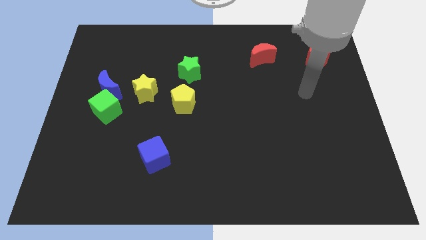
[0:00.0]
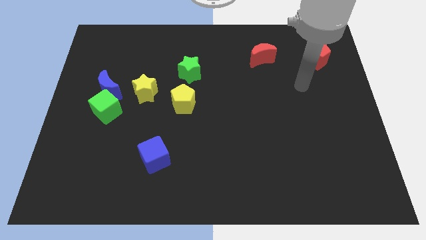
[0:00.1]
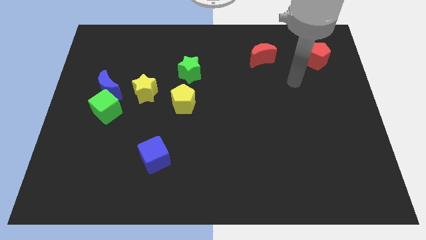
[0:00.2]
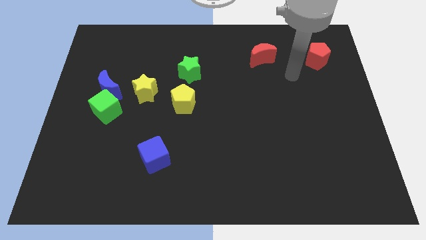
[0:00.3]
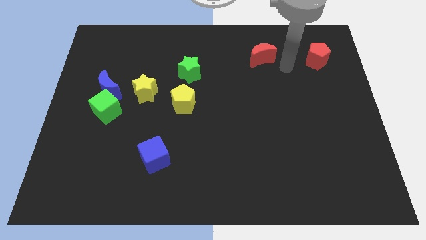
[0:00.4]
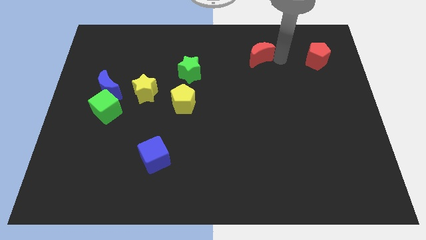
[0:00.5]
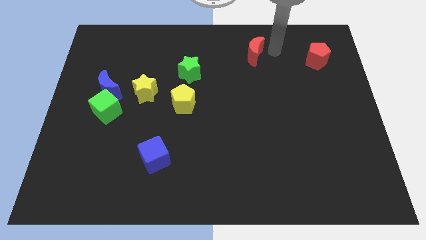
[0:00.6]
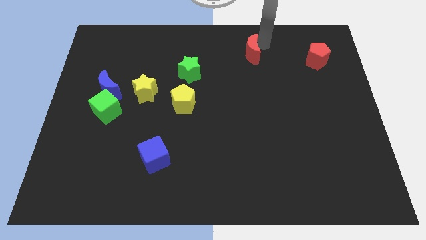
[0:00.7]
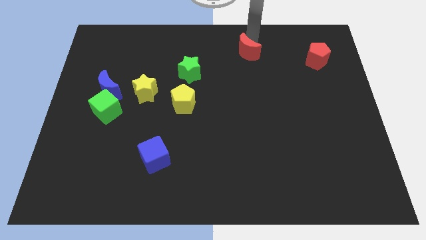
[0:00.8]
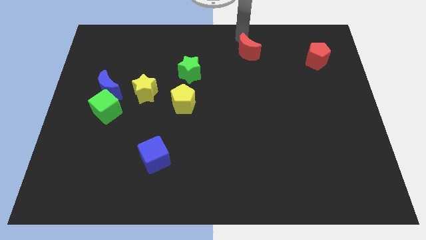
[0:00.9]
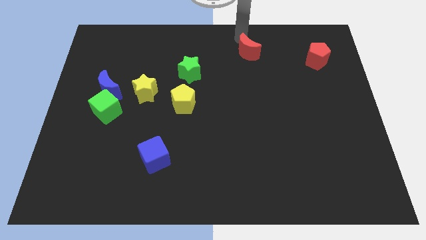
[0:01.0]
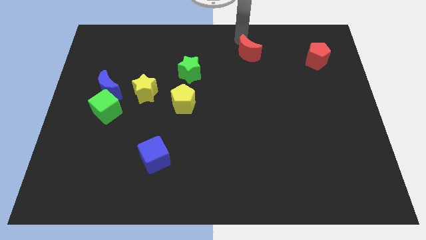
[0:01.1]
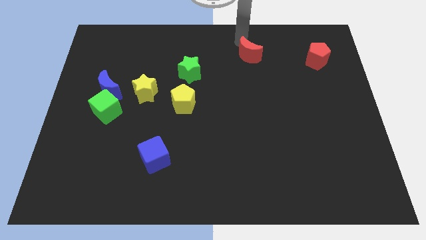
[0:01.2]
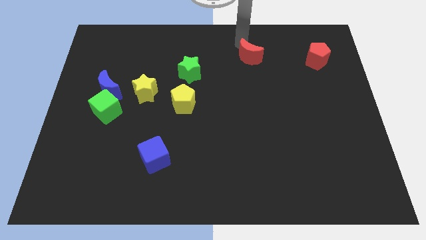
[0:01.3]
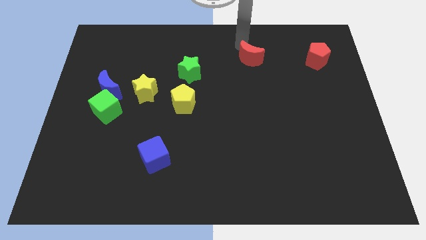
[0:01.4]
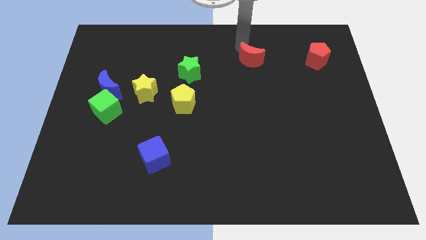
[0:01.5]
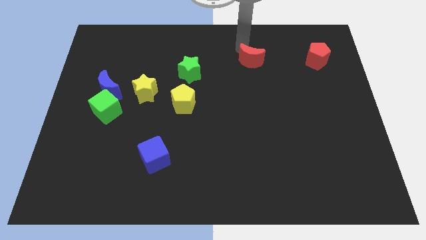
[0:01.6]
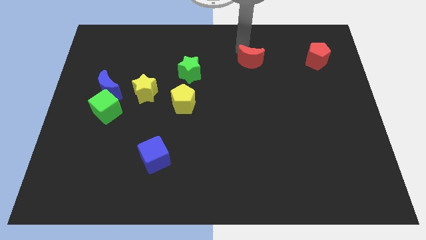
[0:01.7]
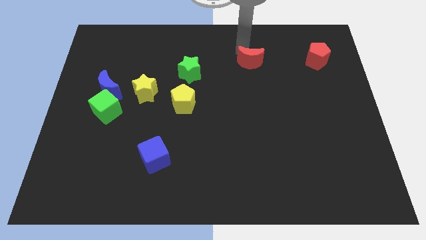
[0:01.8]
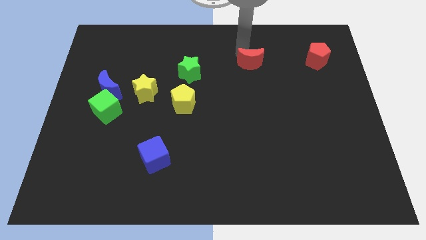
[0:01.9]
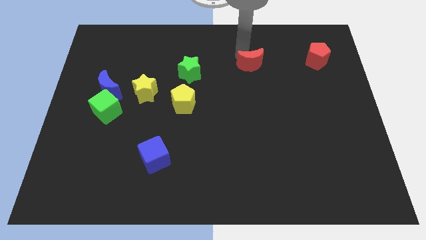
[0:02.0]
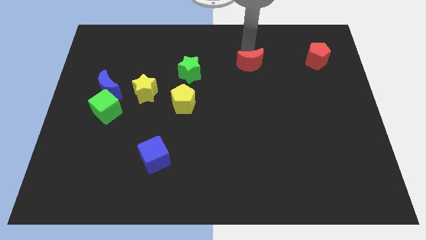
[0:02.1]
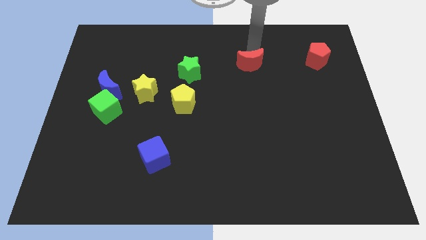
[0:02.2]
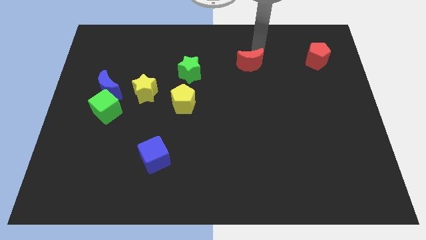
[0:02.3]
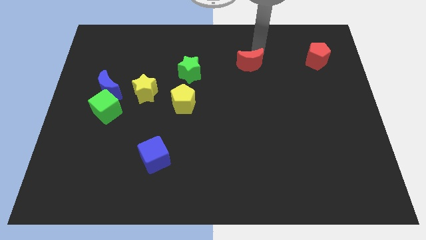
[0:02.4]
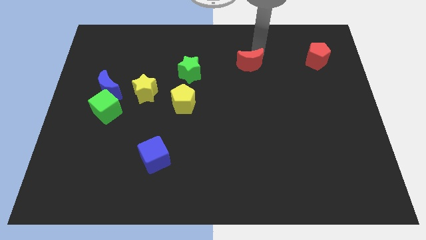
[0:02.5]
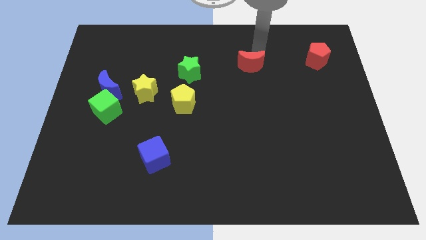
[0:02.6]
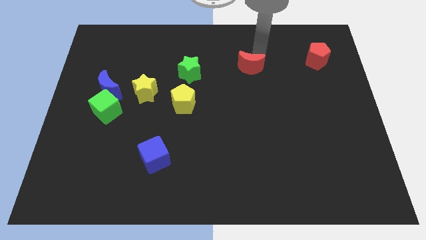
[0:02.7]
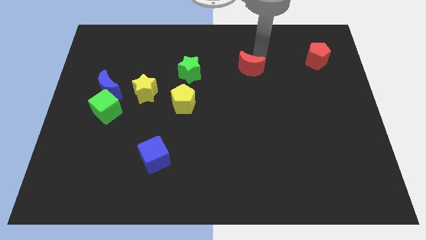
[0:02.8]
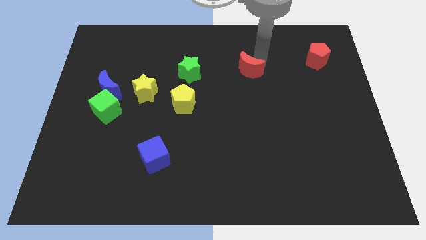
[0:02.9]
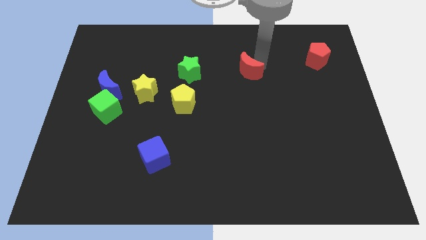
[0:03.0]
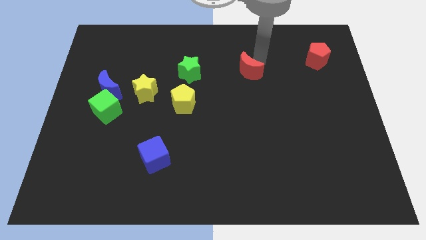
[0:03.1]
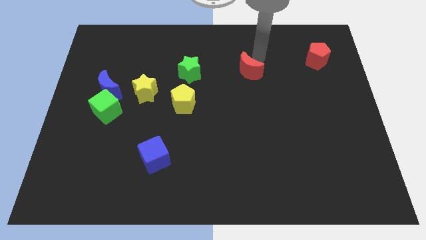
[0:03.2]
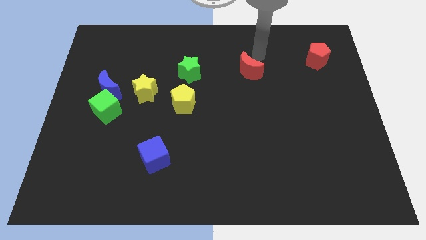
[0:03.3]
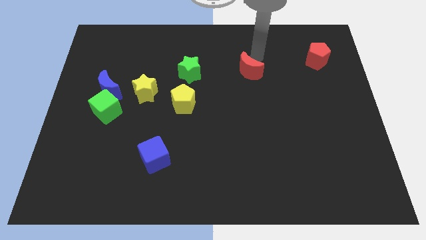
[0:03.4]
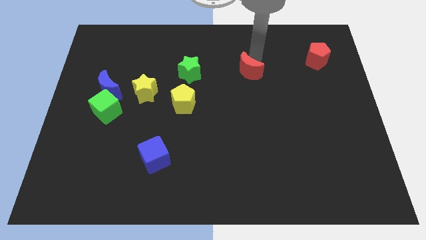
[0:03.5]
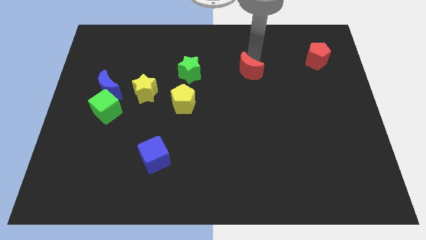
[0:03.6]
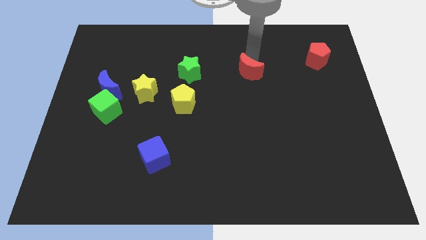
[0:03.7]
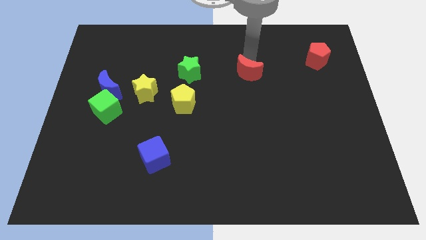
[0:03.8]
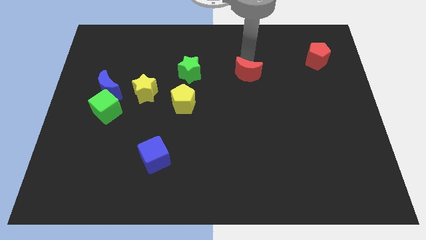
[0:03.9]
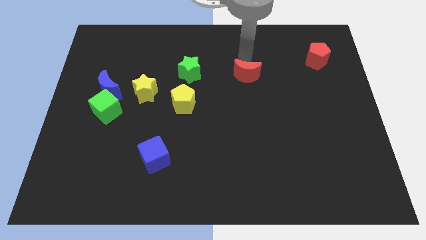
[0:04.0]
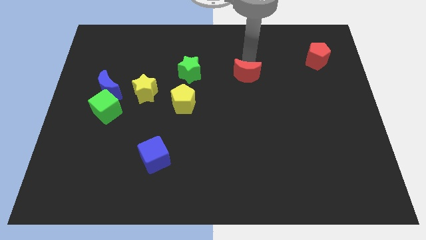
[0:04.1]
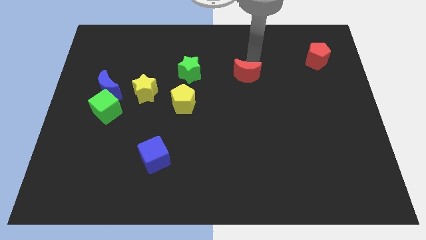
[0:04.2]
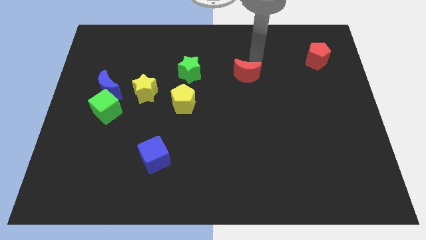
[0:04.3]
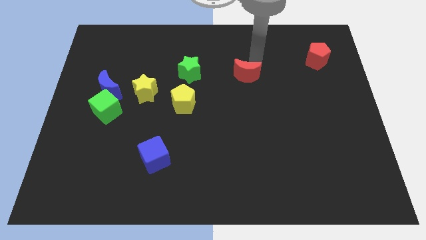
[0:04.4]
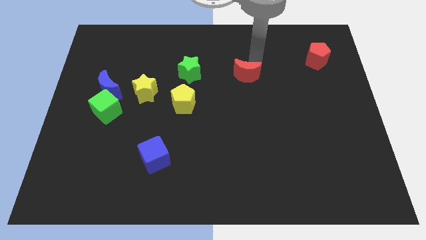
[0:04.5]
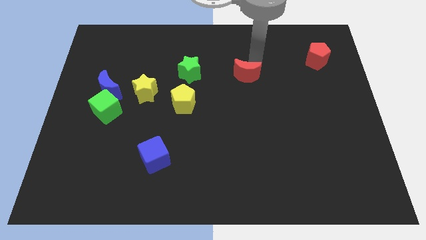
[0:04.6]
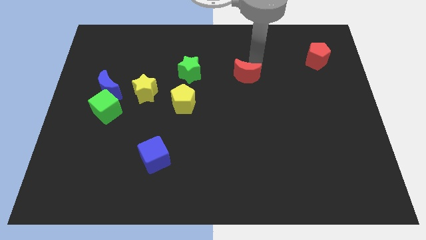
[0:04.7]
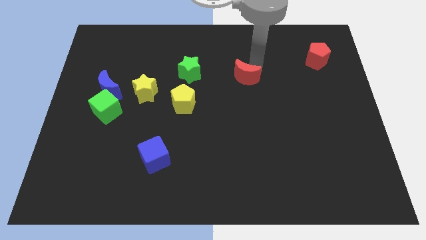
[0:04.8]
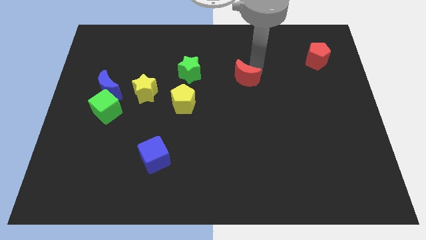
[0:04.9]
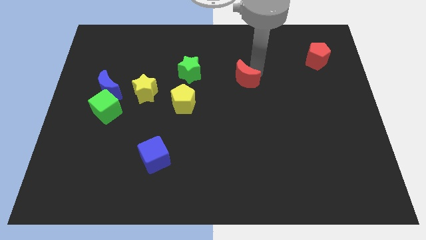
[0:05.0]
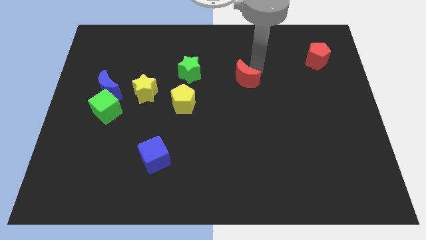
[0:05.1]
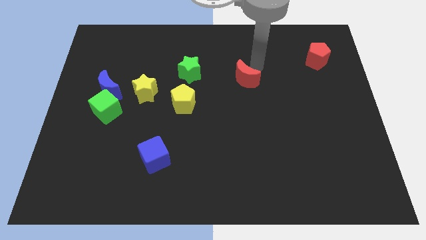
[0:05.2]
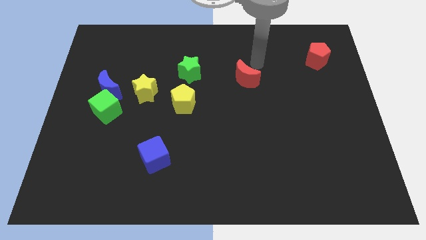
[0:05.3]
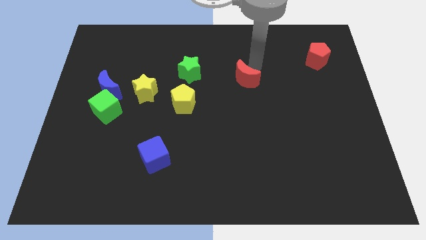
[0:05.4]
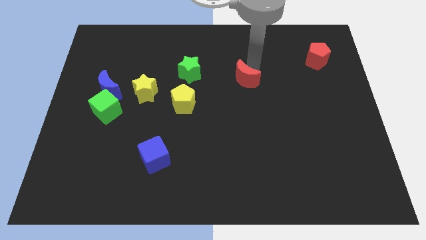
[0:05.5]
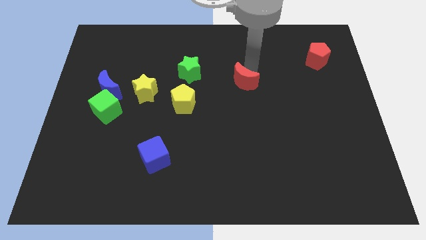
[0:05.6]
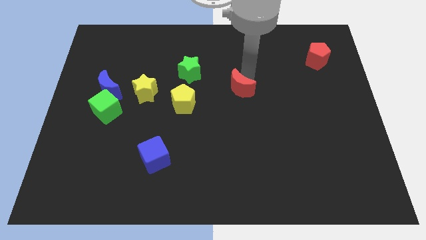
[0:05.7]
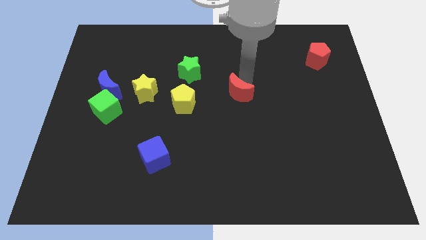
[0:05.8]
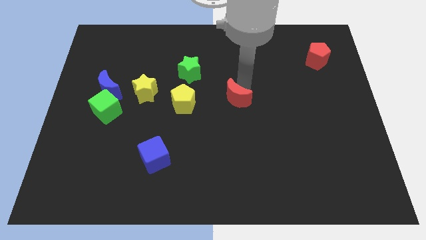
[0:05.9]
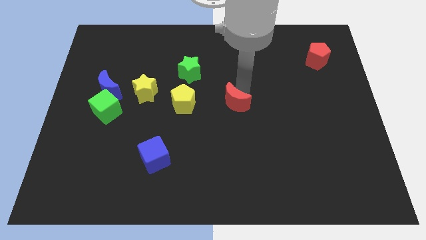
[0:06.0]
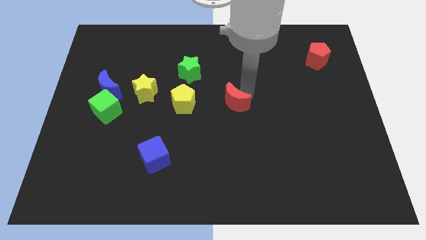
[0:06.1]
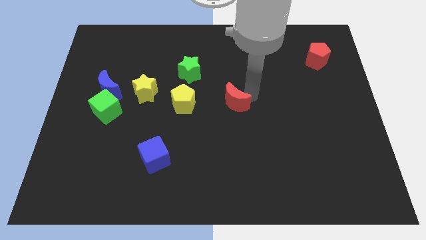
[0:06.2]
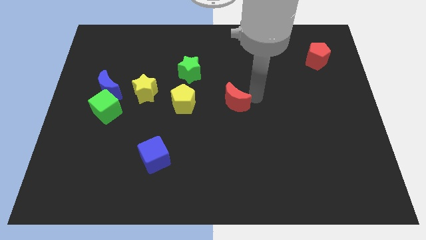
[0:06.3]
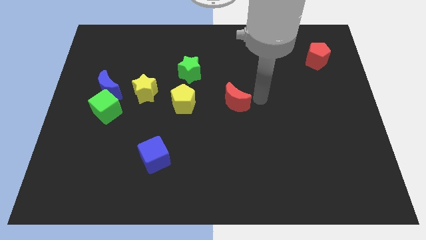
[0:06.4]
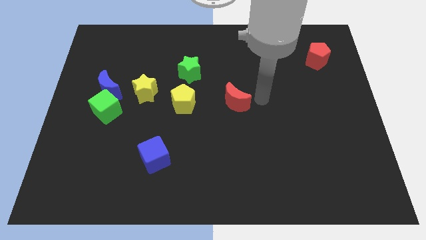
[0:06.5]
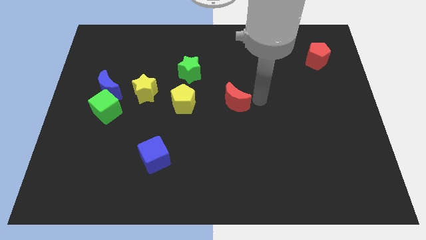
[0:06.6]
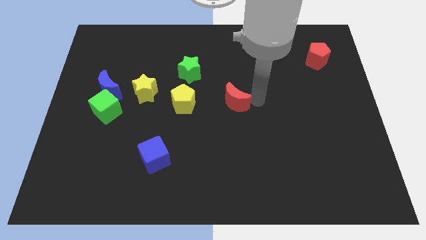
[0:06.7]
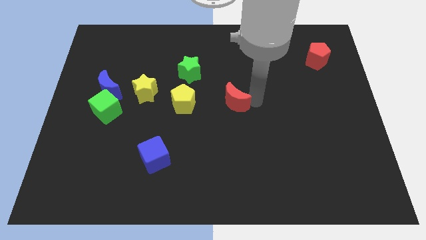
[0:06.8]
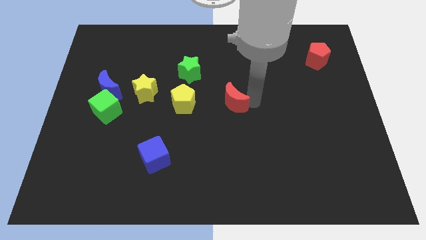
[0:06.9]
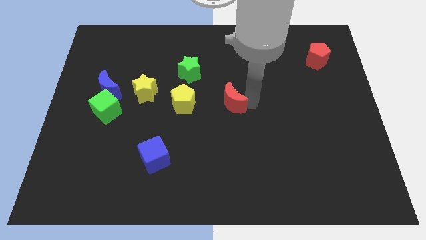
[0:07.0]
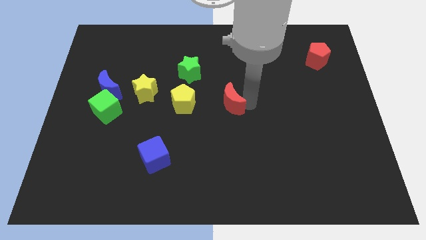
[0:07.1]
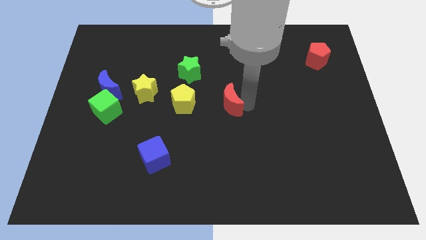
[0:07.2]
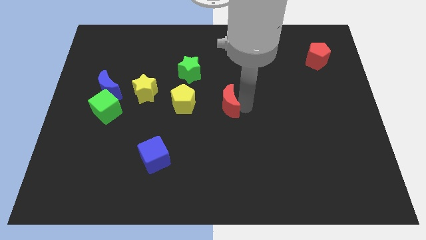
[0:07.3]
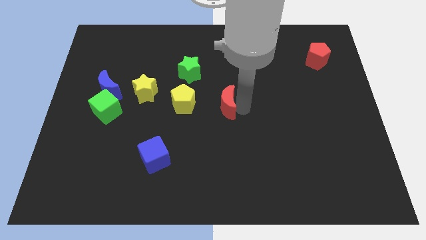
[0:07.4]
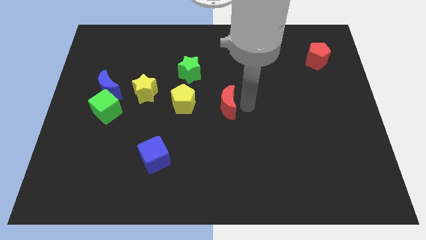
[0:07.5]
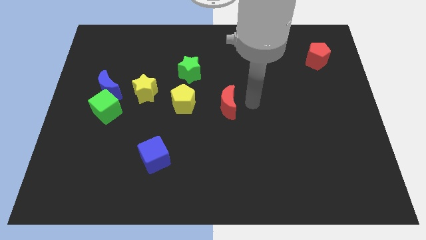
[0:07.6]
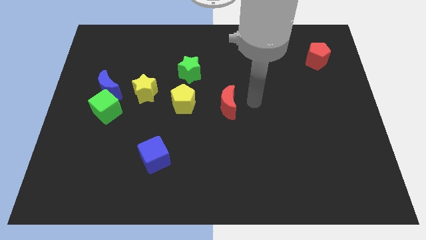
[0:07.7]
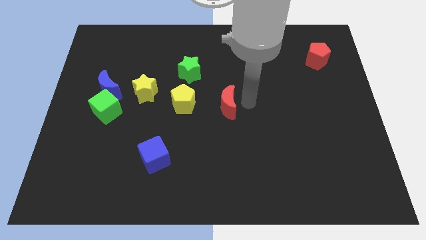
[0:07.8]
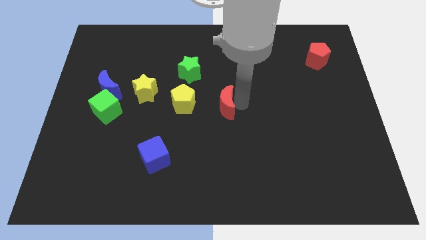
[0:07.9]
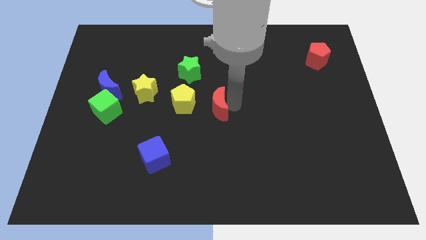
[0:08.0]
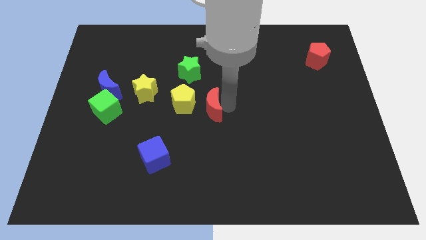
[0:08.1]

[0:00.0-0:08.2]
push the red moon down and then left
